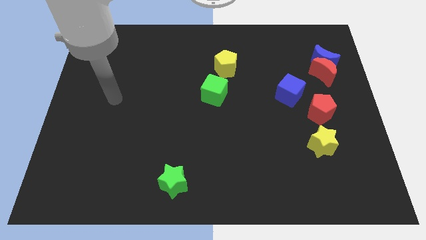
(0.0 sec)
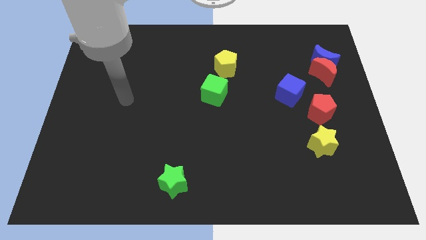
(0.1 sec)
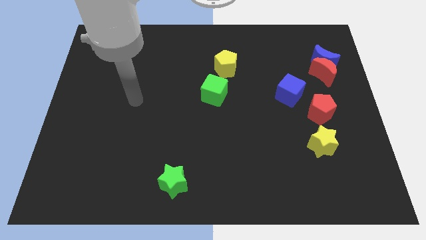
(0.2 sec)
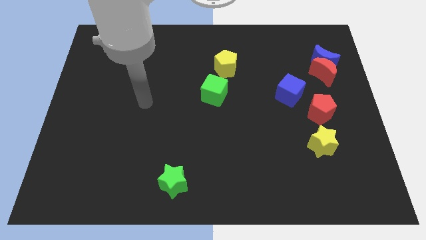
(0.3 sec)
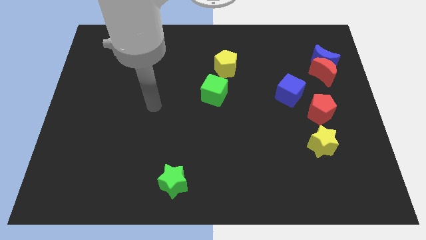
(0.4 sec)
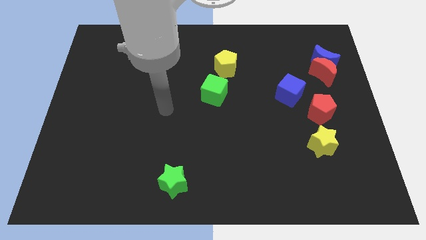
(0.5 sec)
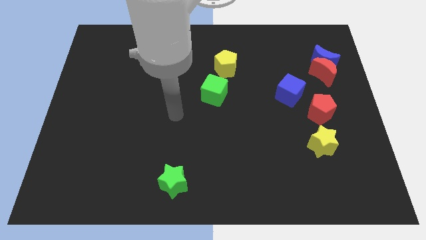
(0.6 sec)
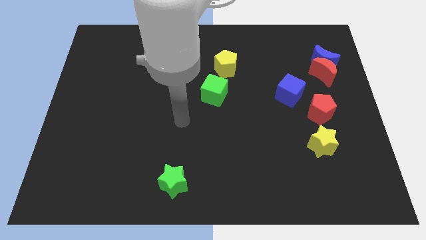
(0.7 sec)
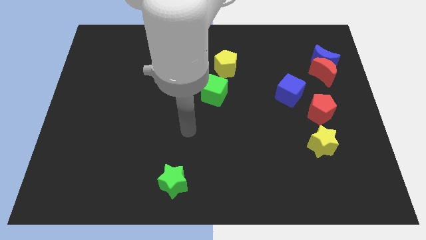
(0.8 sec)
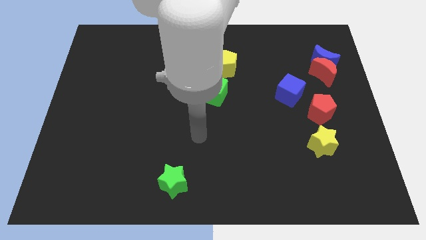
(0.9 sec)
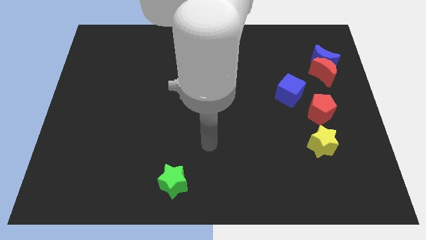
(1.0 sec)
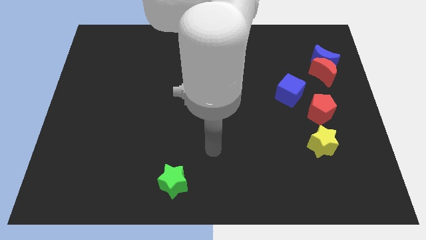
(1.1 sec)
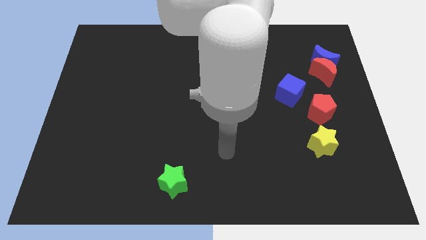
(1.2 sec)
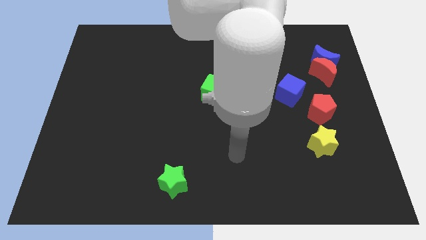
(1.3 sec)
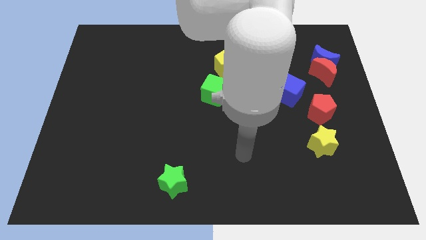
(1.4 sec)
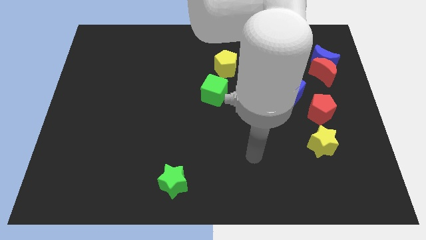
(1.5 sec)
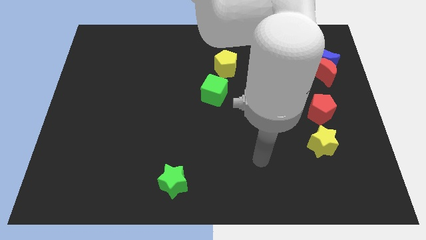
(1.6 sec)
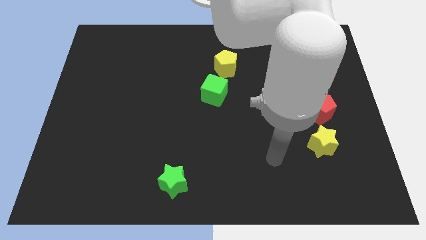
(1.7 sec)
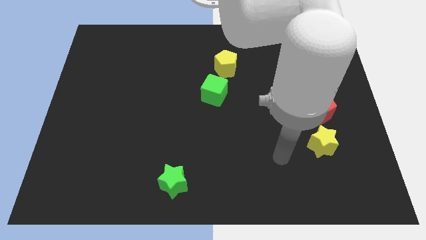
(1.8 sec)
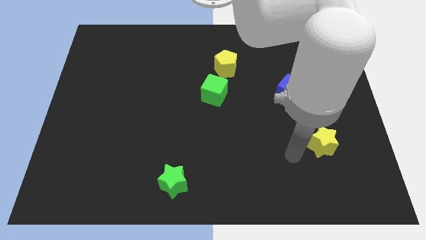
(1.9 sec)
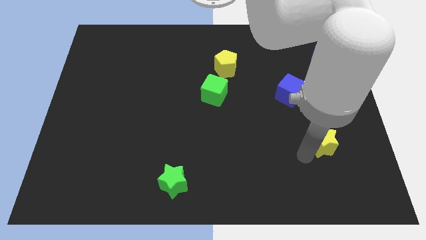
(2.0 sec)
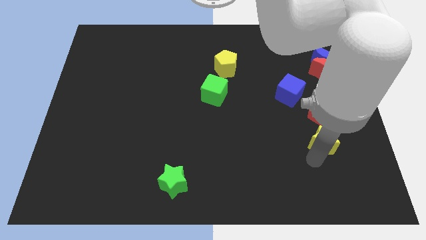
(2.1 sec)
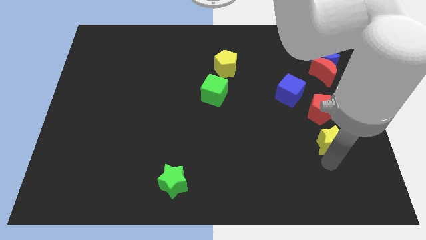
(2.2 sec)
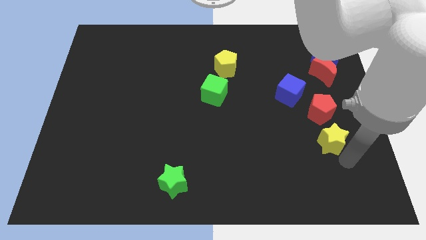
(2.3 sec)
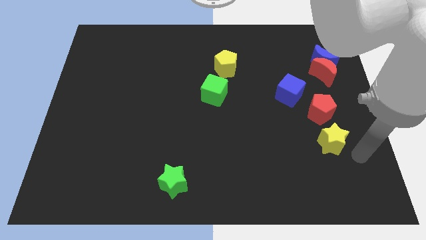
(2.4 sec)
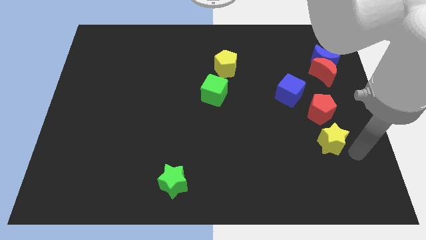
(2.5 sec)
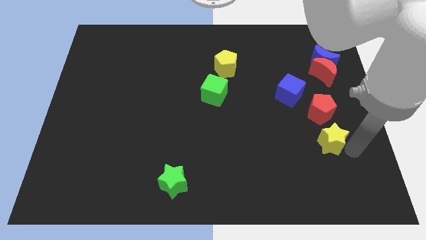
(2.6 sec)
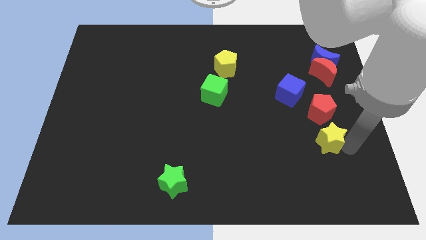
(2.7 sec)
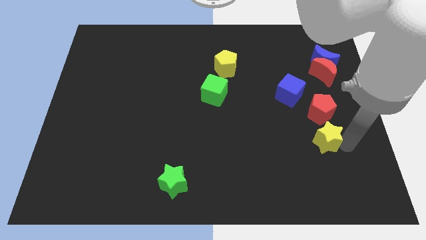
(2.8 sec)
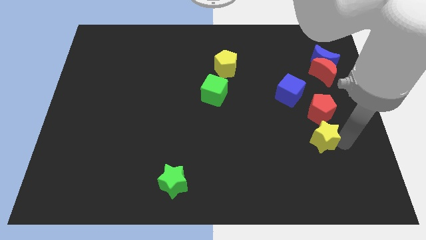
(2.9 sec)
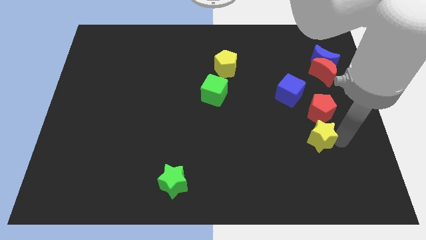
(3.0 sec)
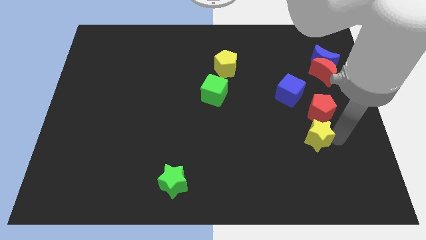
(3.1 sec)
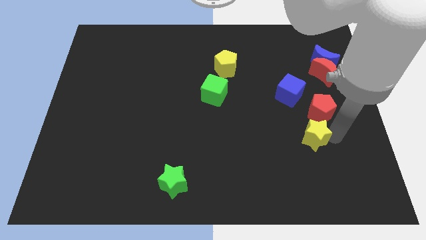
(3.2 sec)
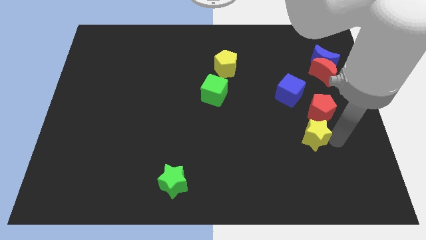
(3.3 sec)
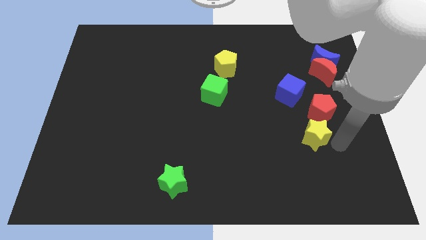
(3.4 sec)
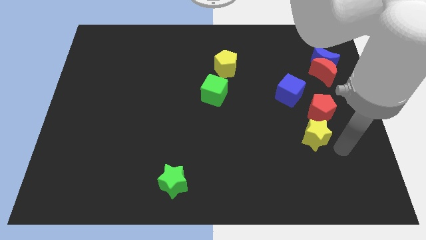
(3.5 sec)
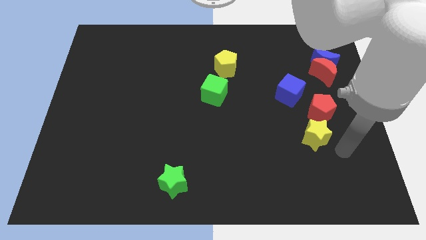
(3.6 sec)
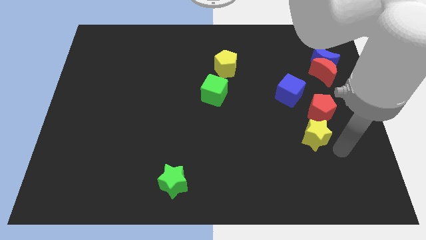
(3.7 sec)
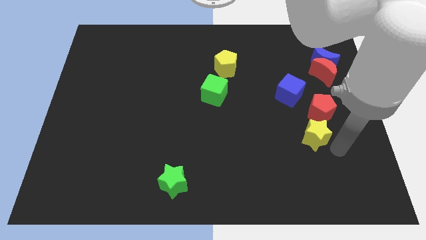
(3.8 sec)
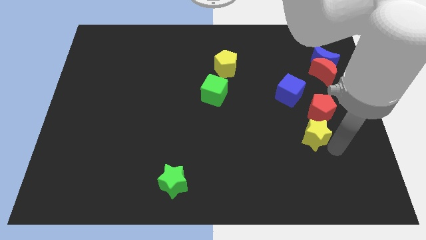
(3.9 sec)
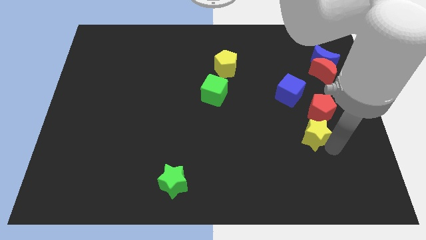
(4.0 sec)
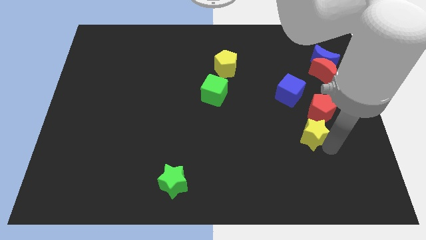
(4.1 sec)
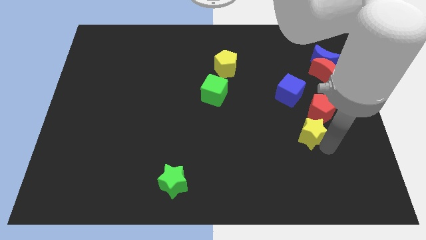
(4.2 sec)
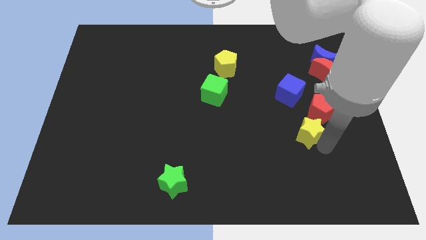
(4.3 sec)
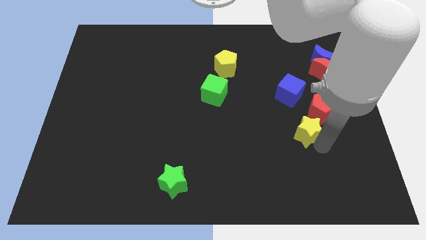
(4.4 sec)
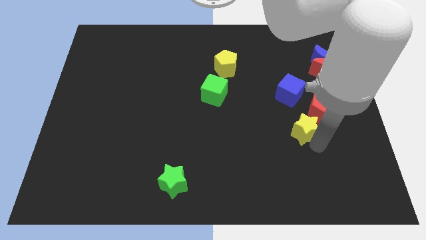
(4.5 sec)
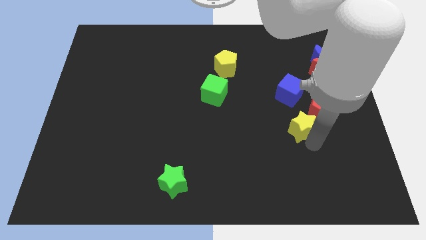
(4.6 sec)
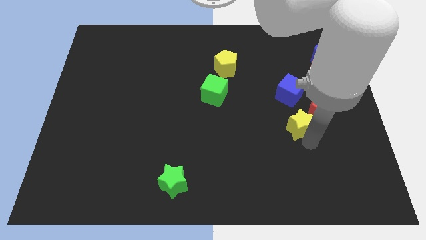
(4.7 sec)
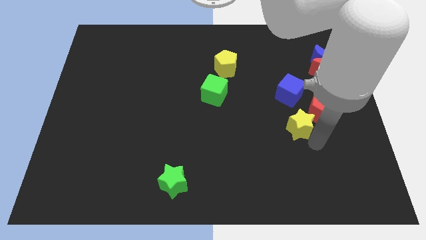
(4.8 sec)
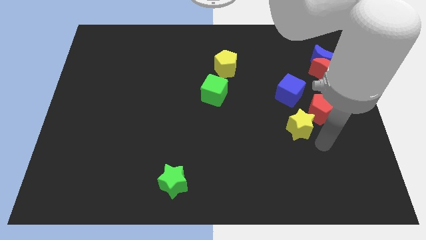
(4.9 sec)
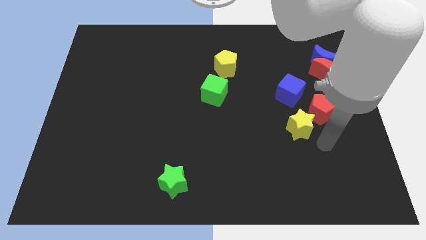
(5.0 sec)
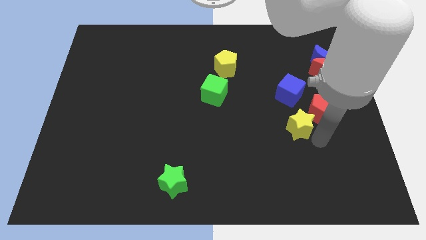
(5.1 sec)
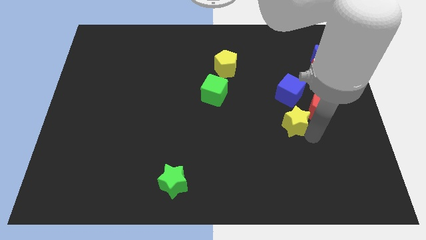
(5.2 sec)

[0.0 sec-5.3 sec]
slightly slide the yellow star upwards and left diagonally

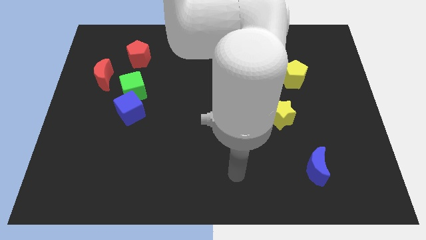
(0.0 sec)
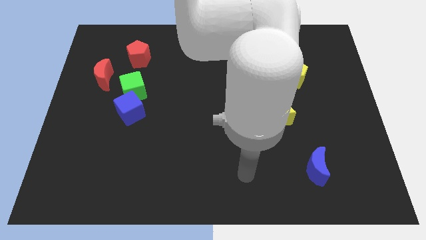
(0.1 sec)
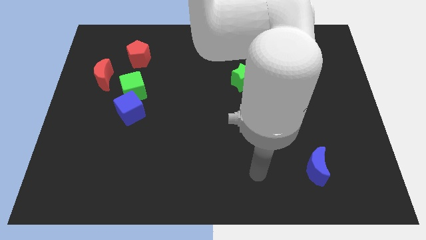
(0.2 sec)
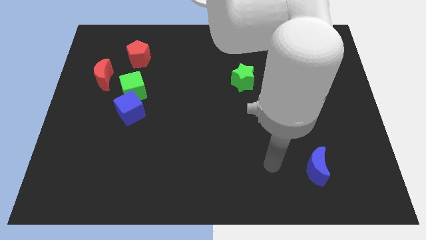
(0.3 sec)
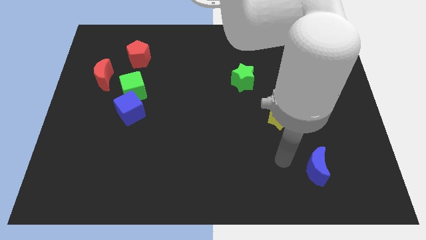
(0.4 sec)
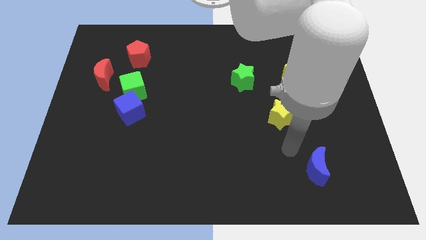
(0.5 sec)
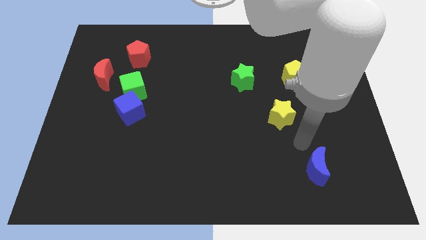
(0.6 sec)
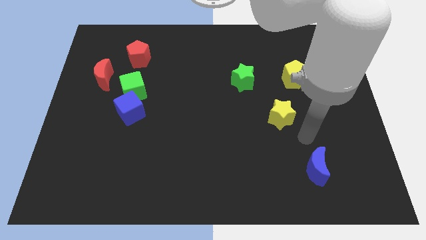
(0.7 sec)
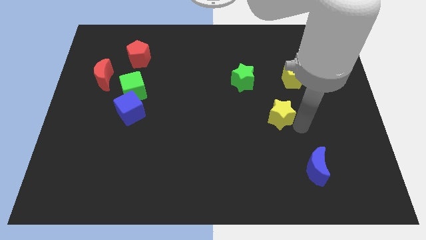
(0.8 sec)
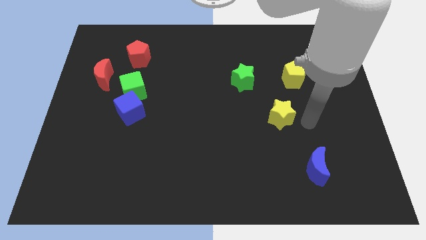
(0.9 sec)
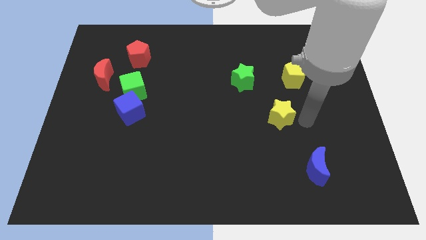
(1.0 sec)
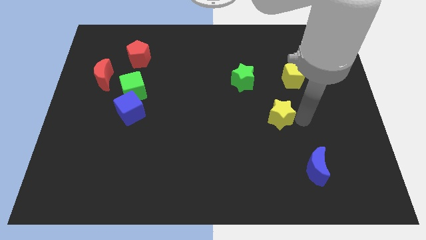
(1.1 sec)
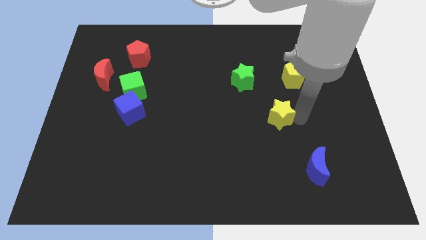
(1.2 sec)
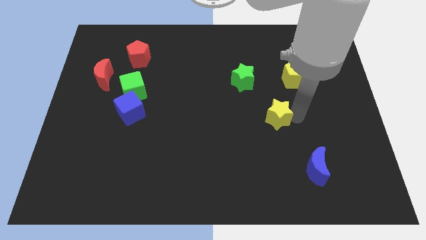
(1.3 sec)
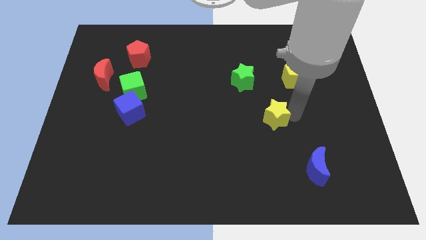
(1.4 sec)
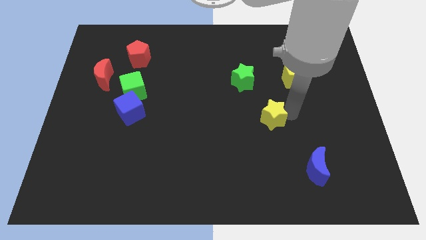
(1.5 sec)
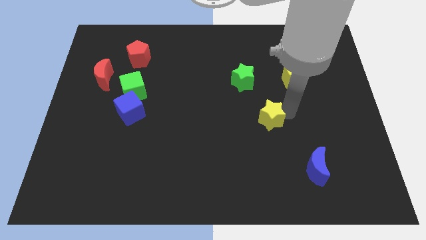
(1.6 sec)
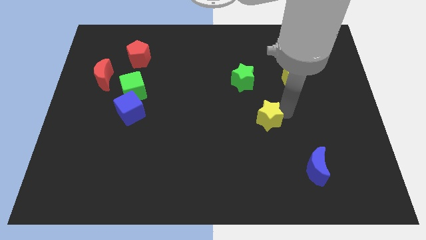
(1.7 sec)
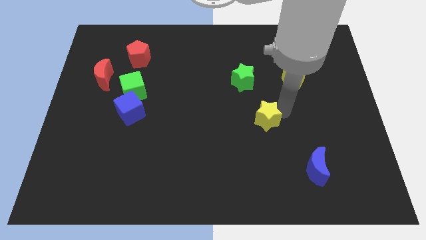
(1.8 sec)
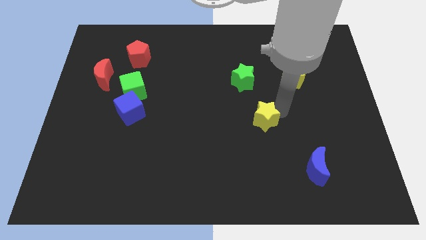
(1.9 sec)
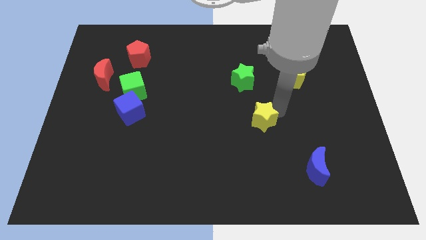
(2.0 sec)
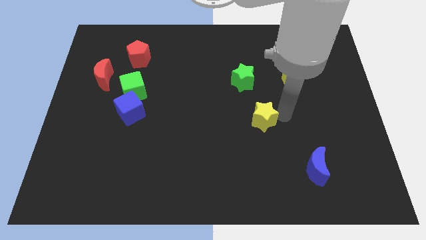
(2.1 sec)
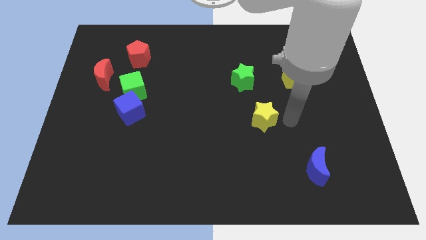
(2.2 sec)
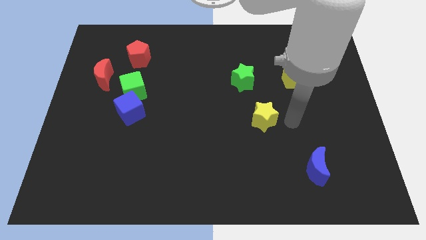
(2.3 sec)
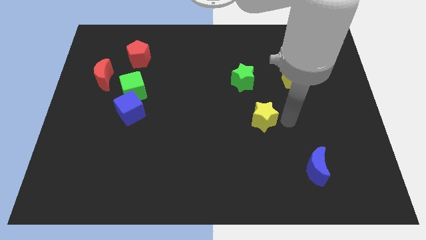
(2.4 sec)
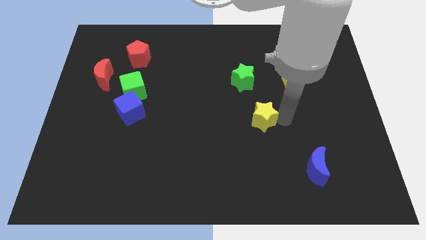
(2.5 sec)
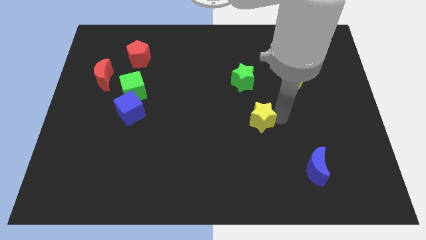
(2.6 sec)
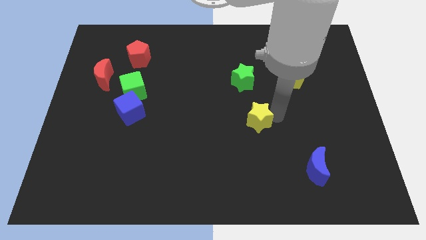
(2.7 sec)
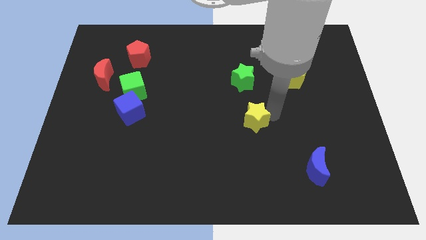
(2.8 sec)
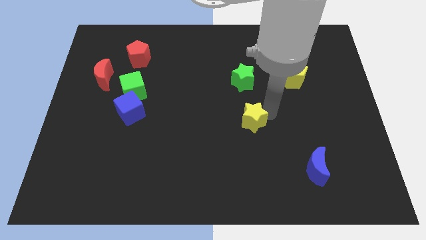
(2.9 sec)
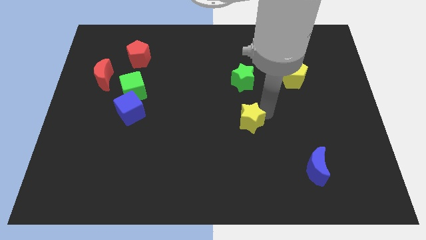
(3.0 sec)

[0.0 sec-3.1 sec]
move the yellow star a little to the left
